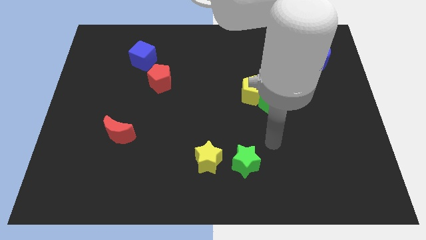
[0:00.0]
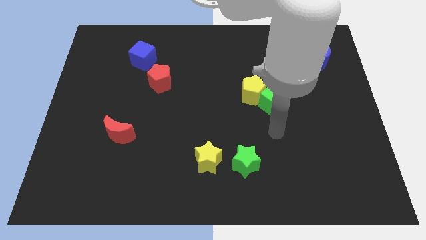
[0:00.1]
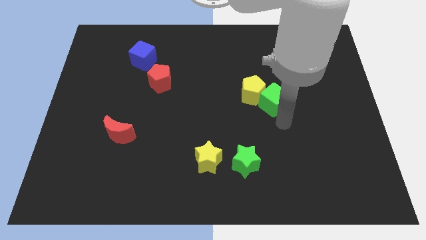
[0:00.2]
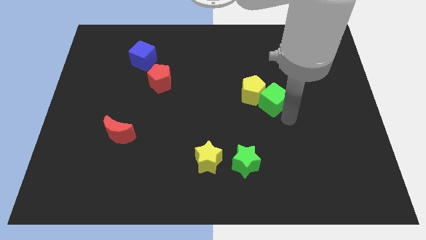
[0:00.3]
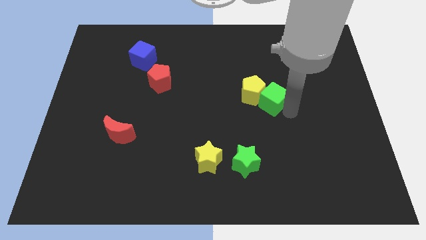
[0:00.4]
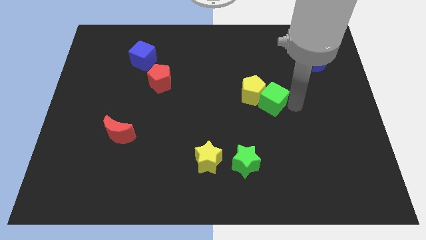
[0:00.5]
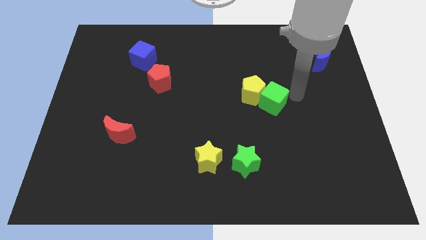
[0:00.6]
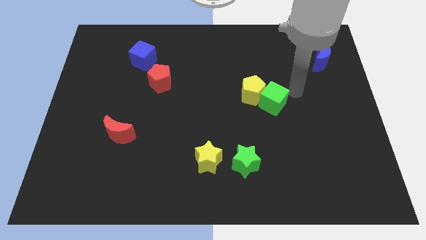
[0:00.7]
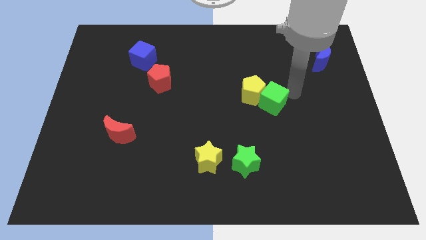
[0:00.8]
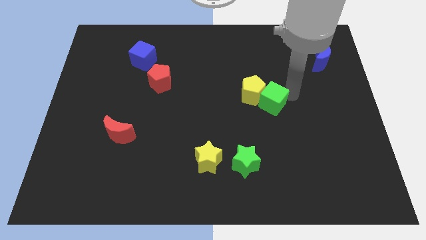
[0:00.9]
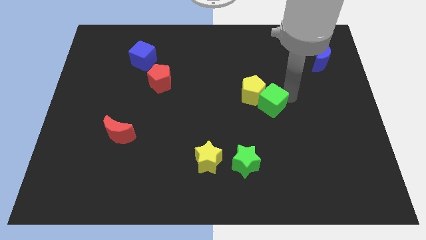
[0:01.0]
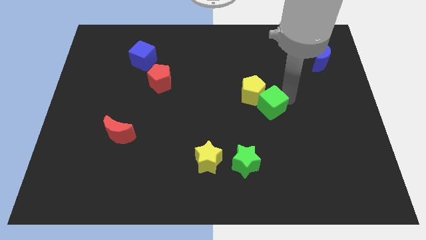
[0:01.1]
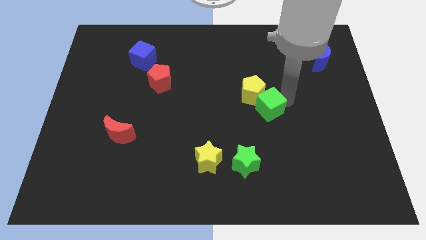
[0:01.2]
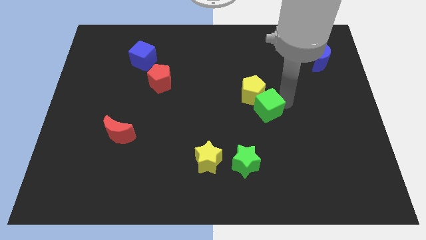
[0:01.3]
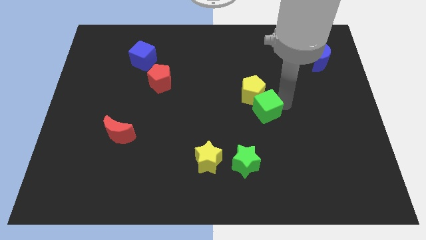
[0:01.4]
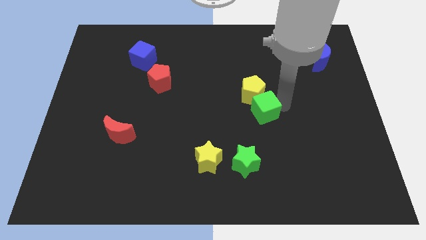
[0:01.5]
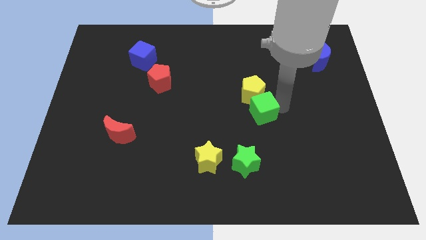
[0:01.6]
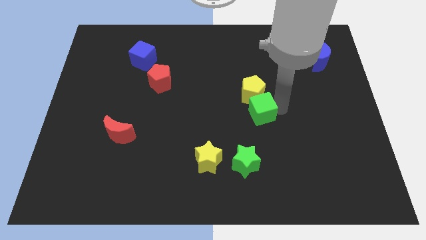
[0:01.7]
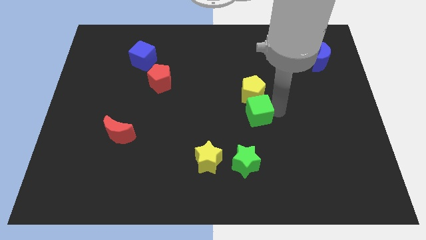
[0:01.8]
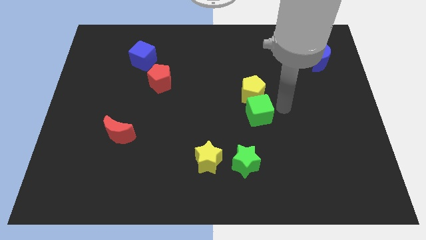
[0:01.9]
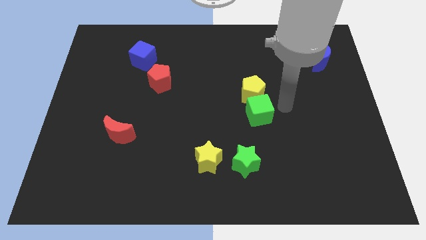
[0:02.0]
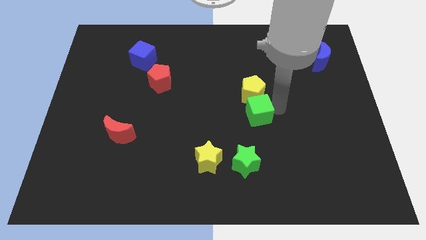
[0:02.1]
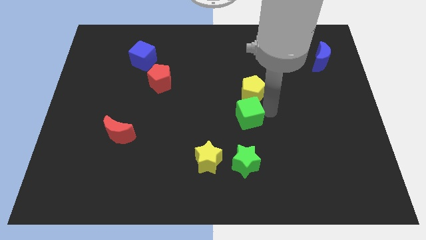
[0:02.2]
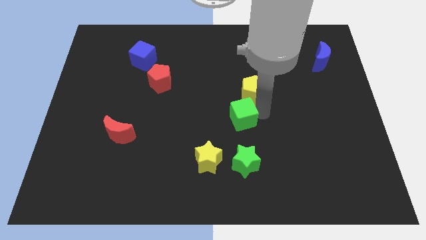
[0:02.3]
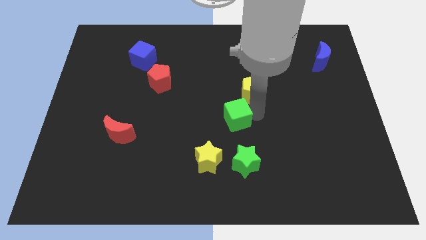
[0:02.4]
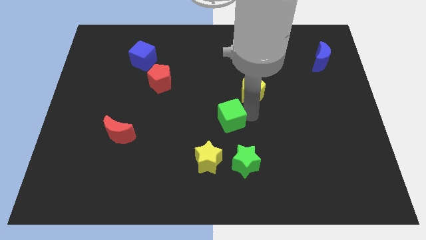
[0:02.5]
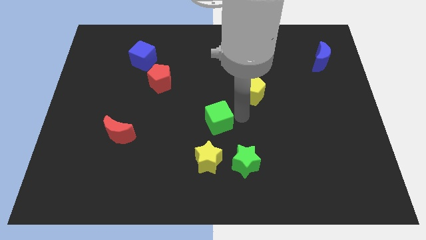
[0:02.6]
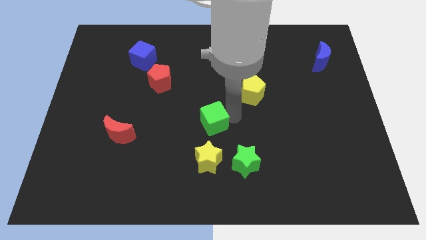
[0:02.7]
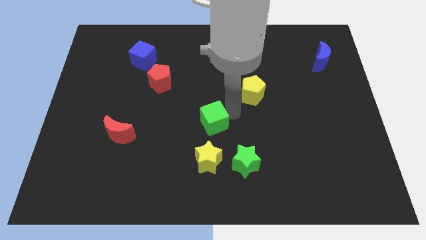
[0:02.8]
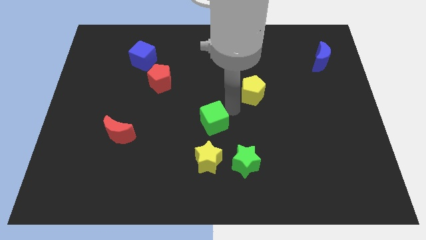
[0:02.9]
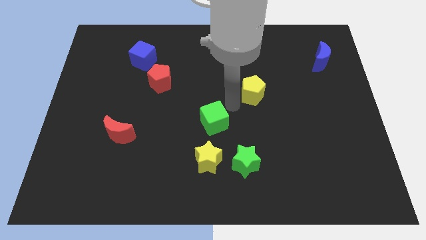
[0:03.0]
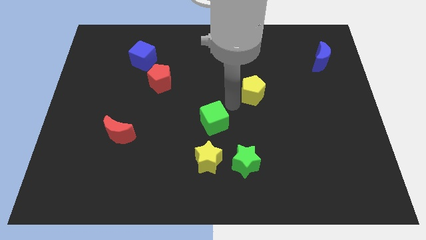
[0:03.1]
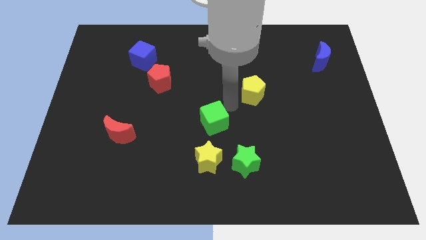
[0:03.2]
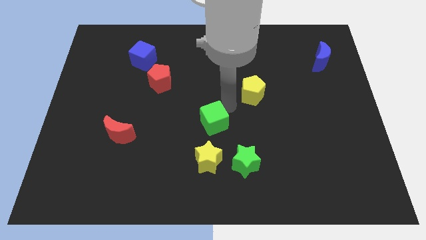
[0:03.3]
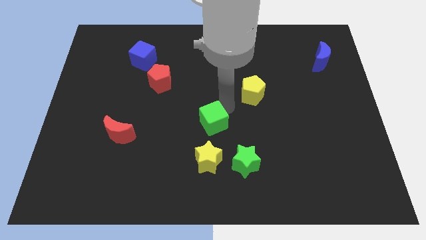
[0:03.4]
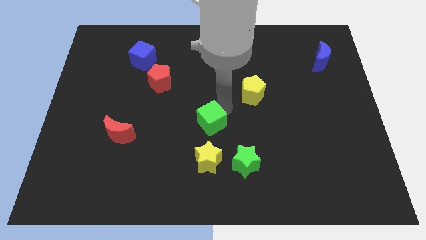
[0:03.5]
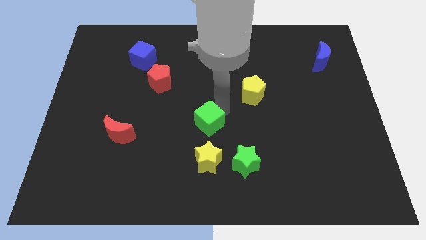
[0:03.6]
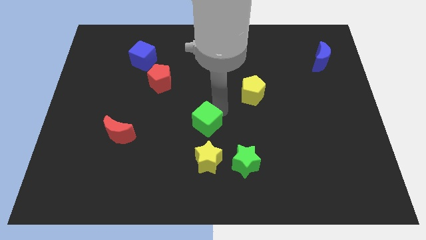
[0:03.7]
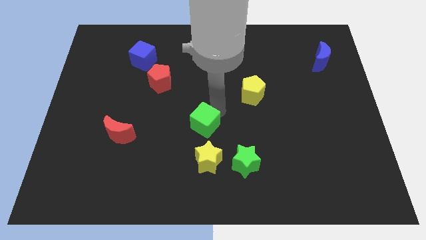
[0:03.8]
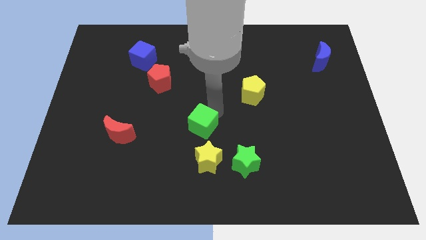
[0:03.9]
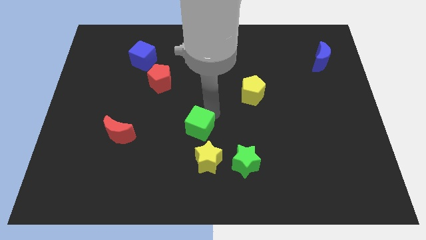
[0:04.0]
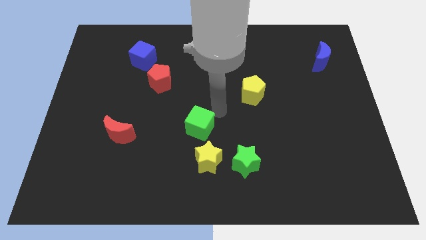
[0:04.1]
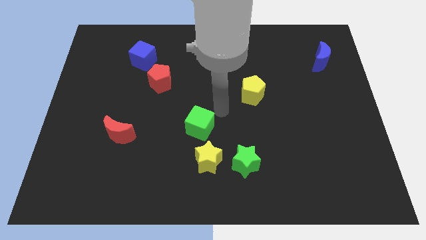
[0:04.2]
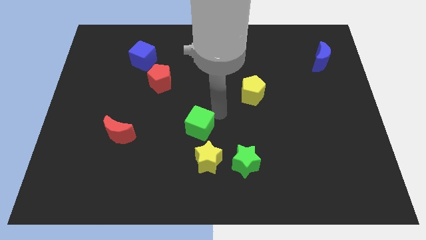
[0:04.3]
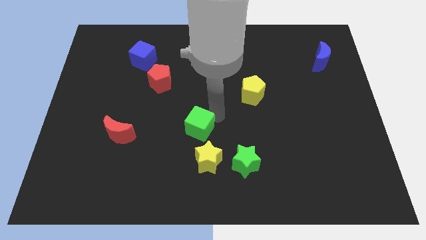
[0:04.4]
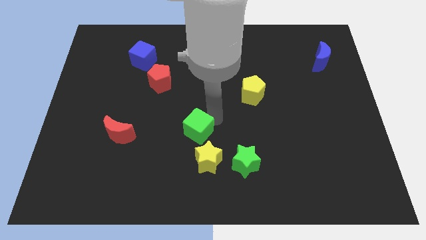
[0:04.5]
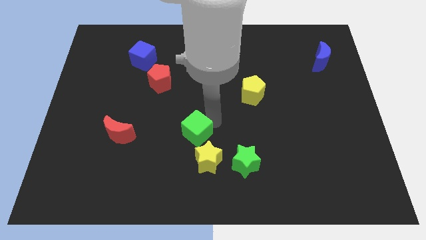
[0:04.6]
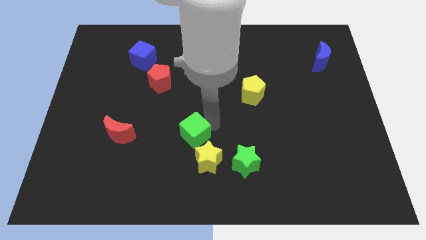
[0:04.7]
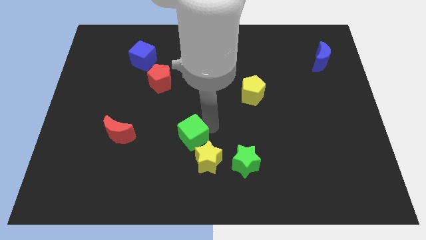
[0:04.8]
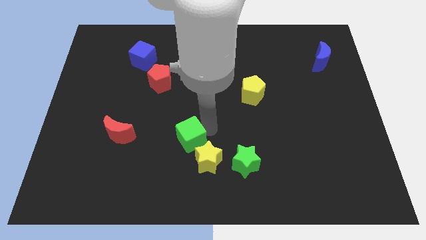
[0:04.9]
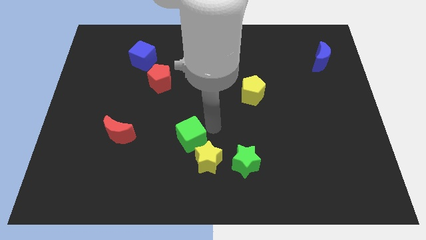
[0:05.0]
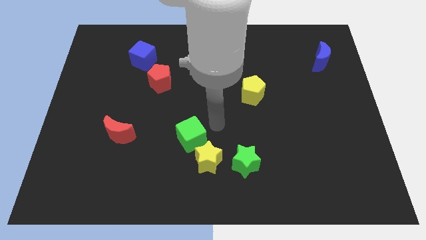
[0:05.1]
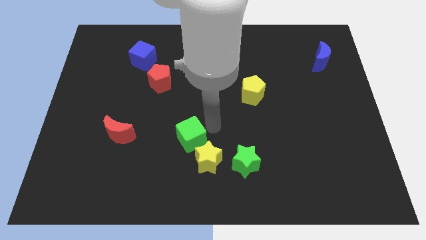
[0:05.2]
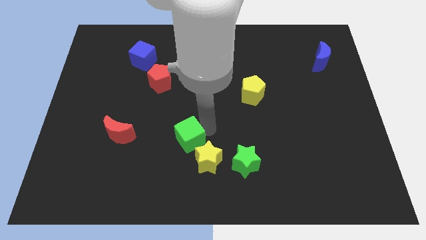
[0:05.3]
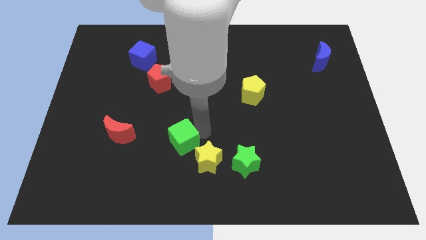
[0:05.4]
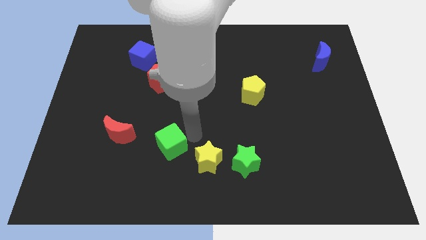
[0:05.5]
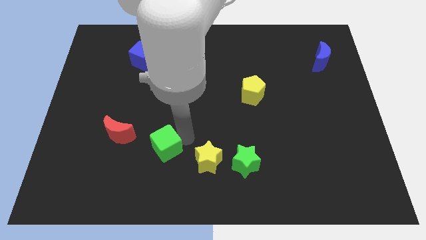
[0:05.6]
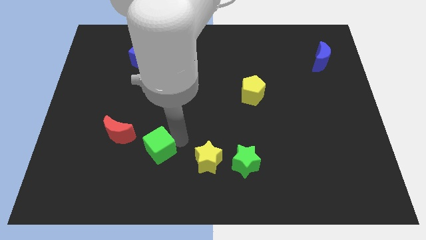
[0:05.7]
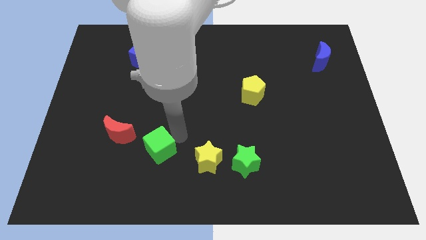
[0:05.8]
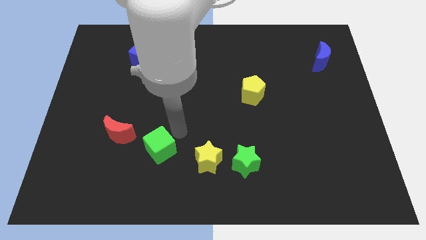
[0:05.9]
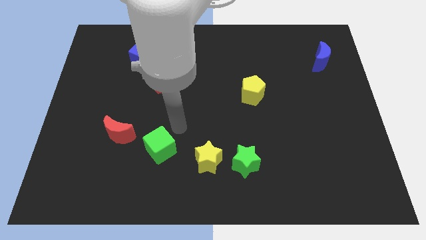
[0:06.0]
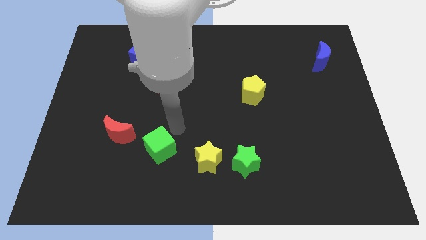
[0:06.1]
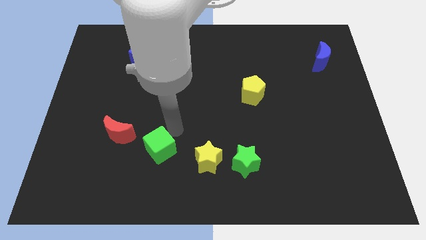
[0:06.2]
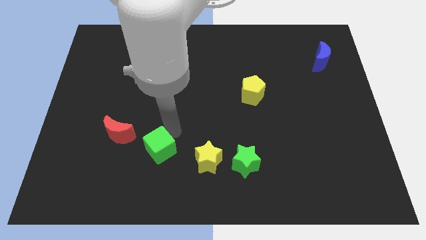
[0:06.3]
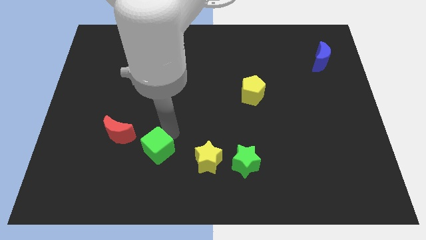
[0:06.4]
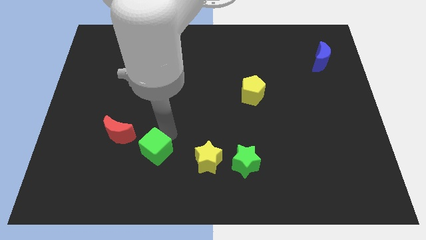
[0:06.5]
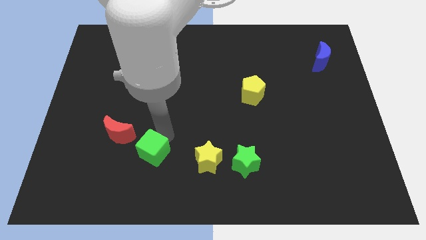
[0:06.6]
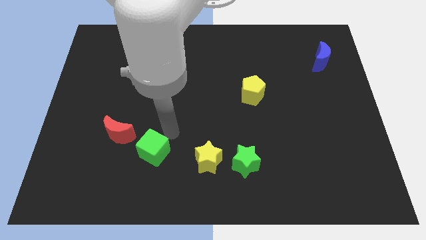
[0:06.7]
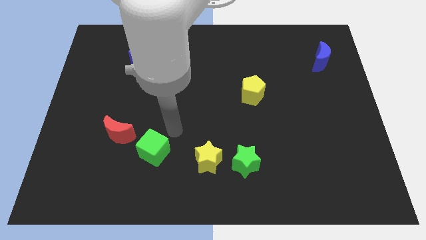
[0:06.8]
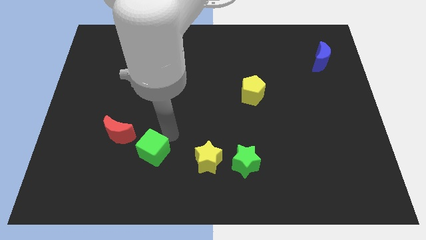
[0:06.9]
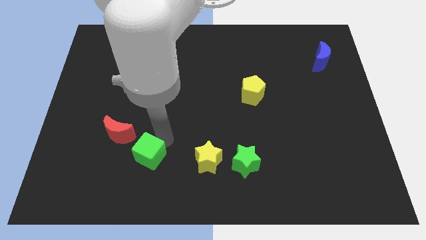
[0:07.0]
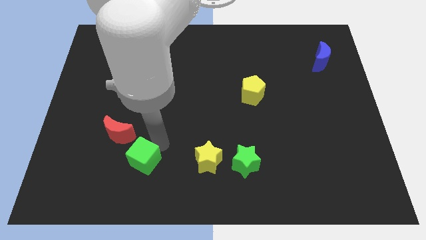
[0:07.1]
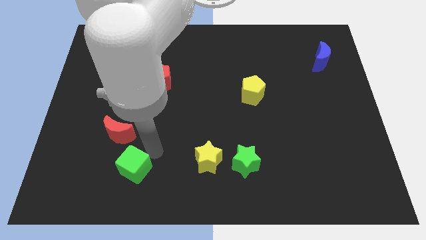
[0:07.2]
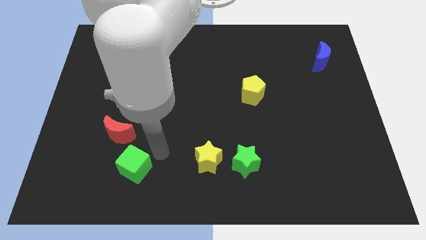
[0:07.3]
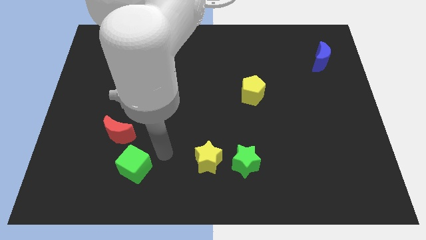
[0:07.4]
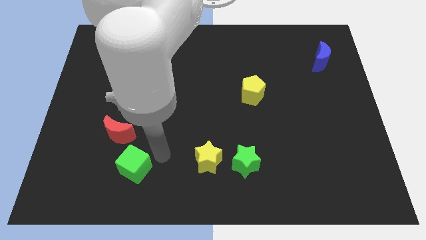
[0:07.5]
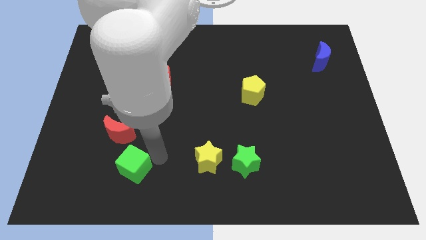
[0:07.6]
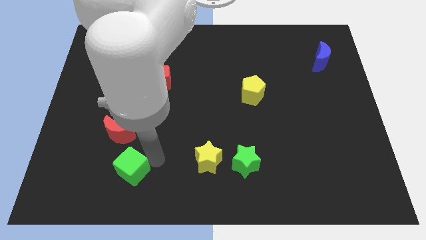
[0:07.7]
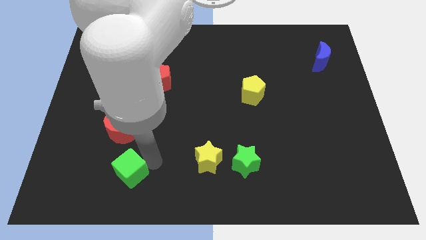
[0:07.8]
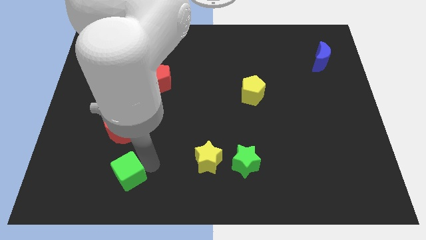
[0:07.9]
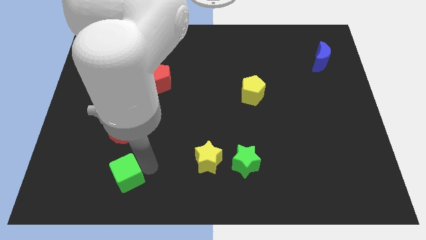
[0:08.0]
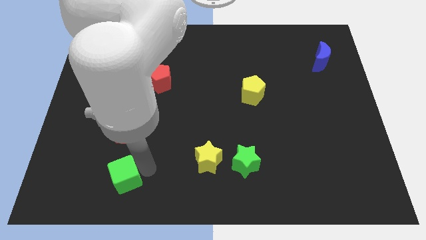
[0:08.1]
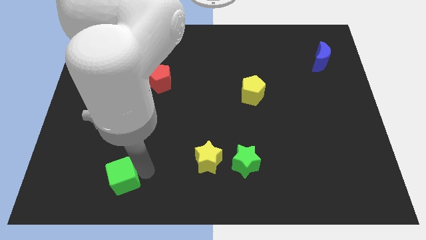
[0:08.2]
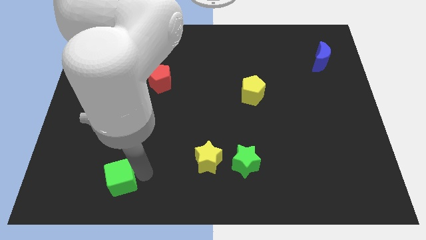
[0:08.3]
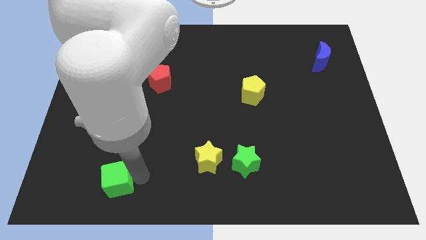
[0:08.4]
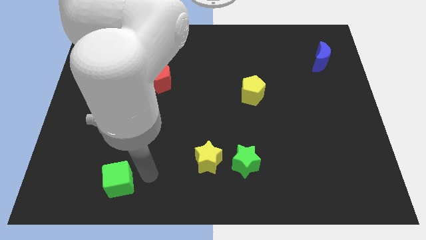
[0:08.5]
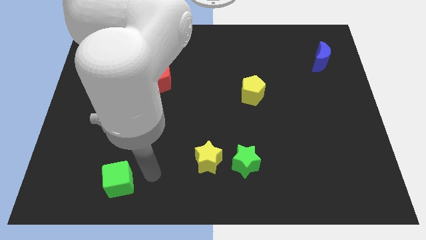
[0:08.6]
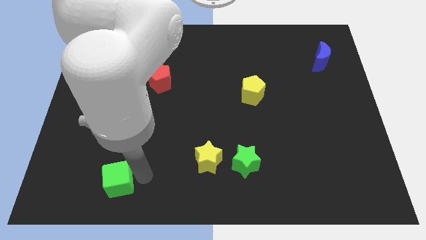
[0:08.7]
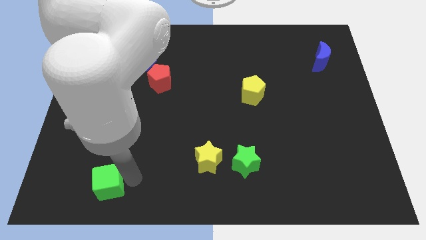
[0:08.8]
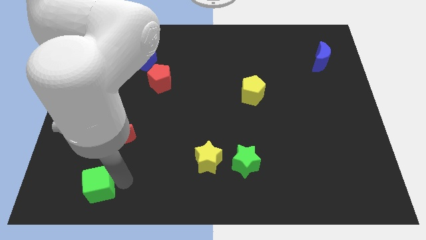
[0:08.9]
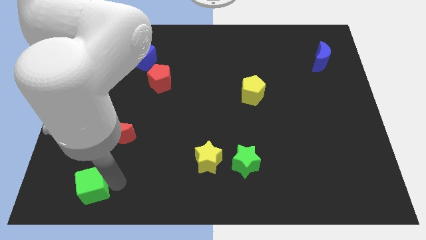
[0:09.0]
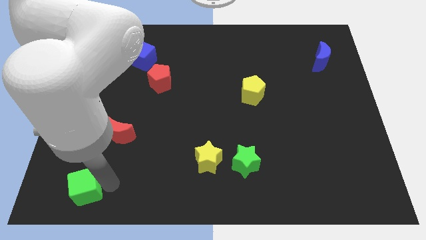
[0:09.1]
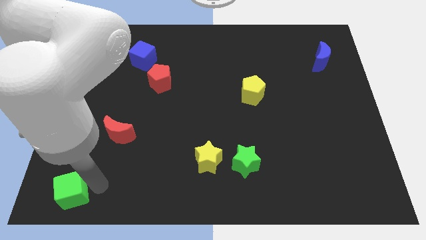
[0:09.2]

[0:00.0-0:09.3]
move the green cube to the bottom left corner
